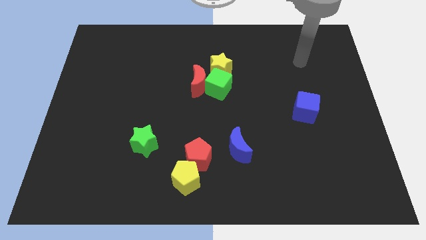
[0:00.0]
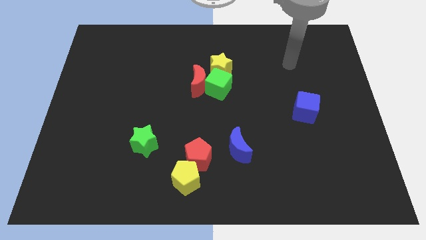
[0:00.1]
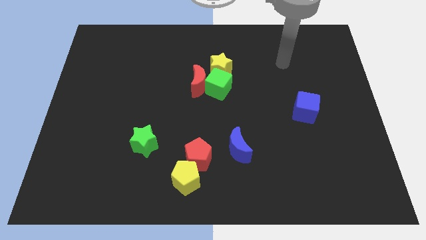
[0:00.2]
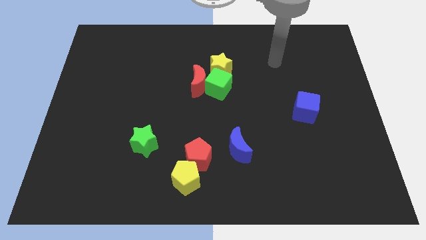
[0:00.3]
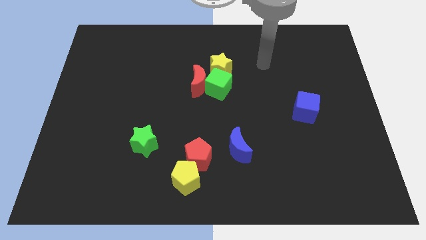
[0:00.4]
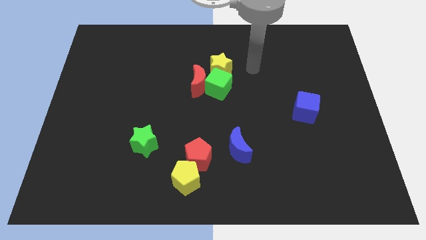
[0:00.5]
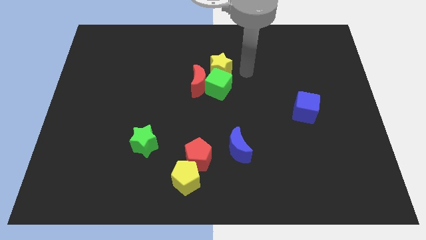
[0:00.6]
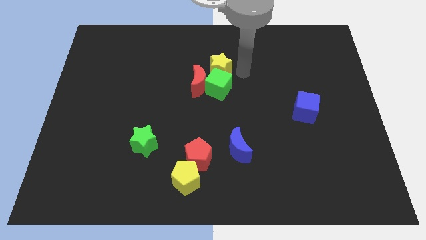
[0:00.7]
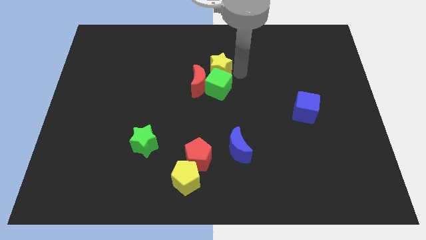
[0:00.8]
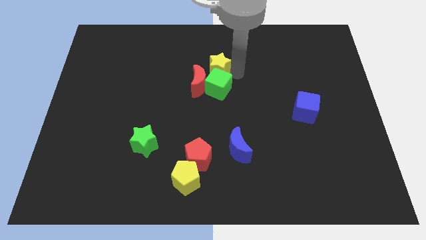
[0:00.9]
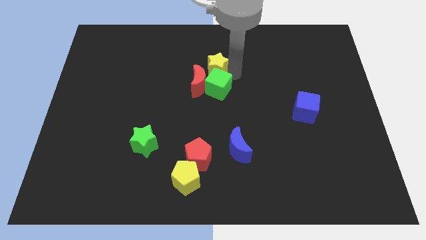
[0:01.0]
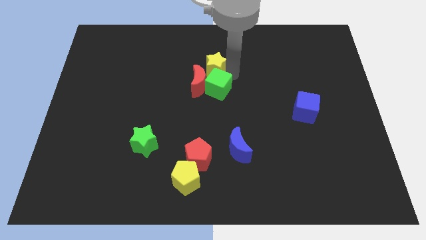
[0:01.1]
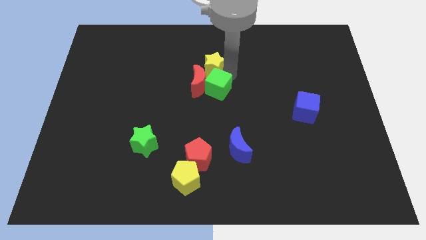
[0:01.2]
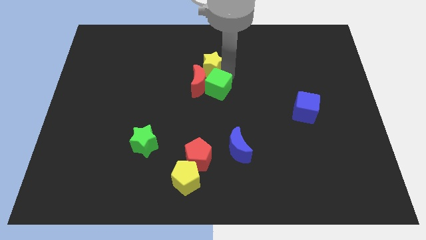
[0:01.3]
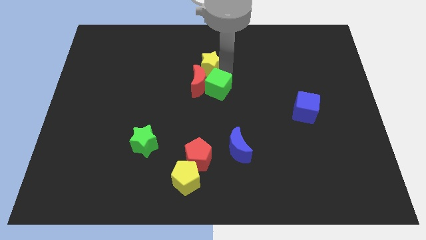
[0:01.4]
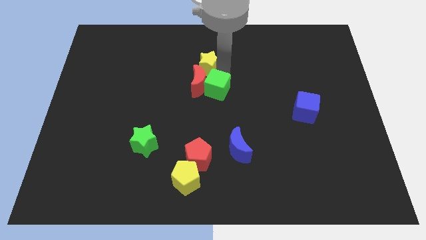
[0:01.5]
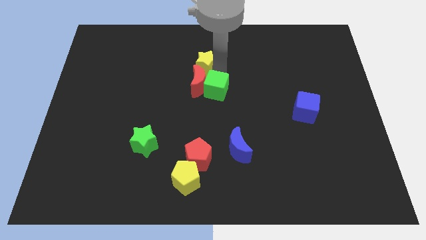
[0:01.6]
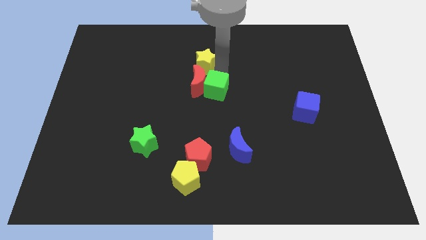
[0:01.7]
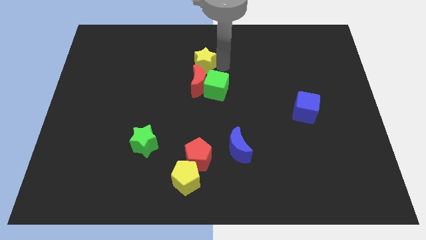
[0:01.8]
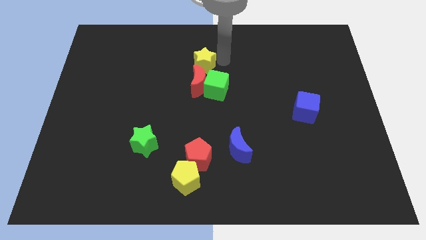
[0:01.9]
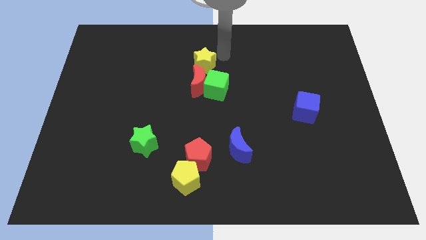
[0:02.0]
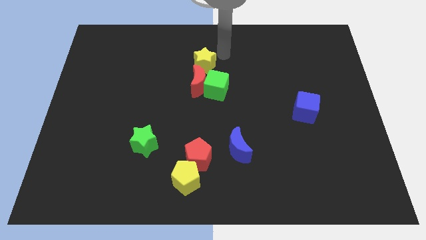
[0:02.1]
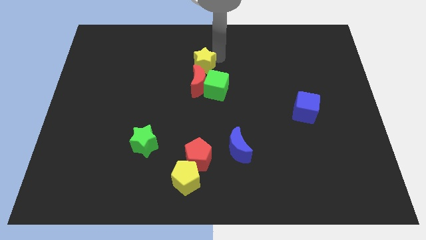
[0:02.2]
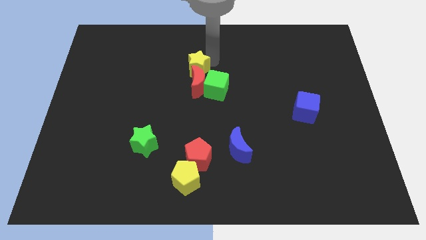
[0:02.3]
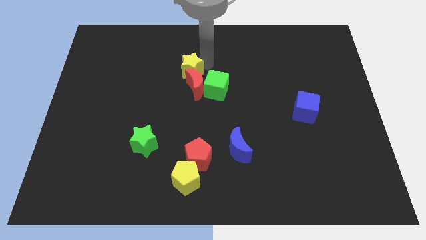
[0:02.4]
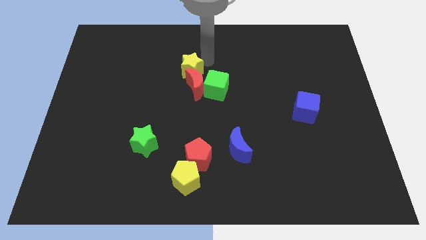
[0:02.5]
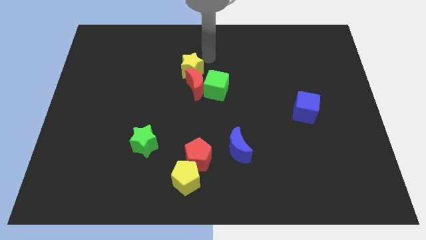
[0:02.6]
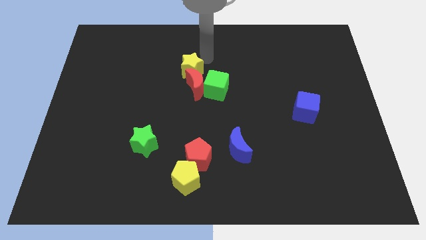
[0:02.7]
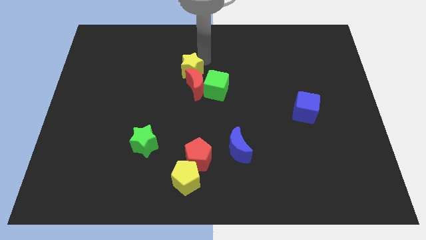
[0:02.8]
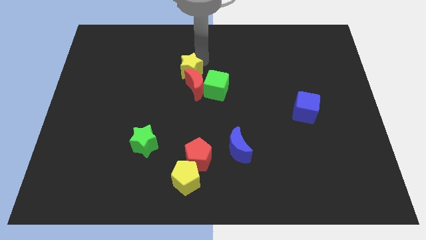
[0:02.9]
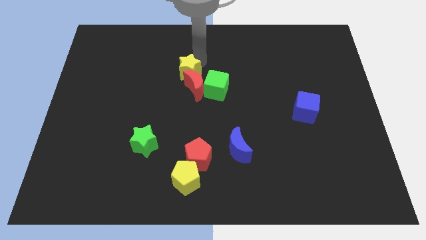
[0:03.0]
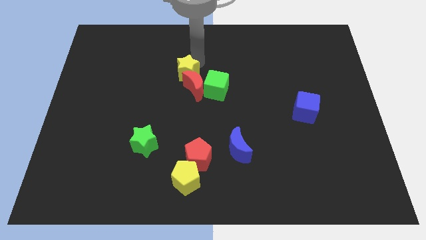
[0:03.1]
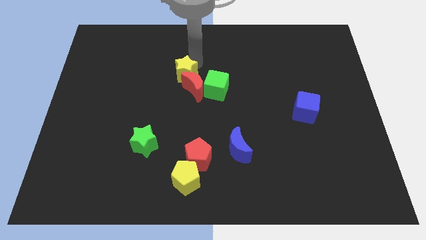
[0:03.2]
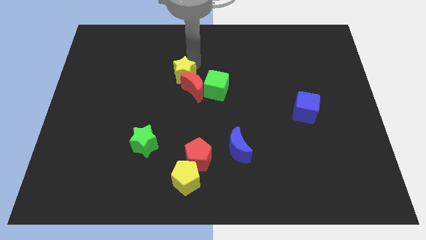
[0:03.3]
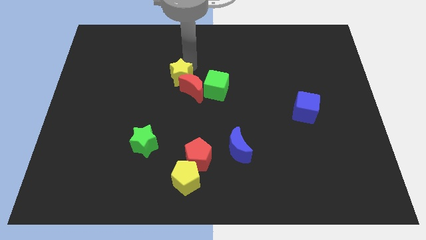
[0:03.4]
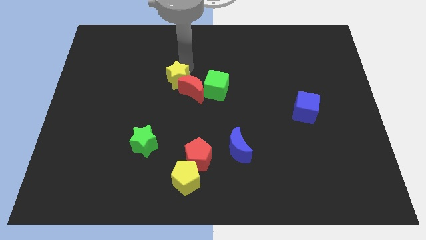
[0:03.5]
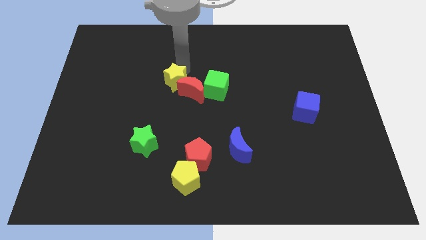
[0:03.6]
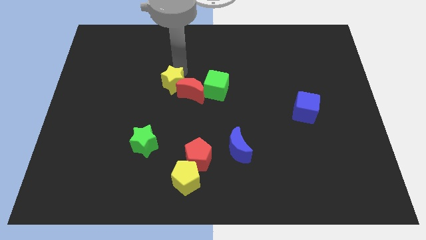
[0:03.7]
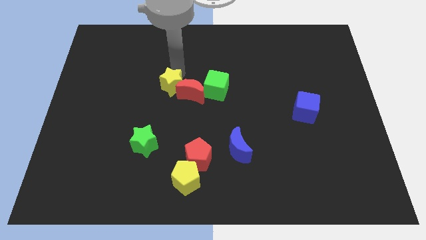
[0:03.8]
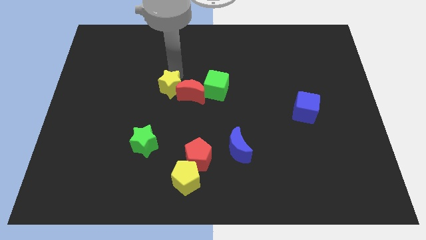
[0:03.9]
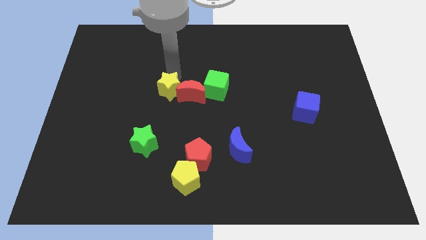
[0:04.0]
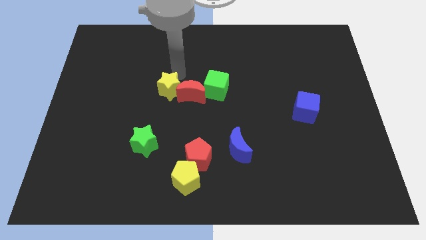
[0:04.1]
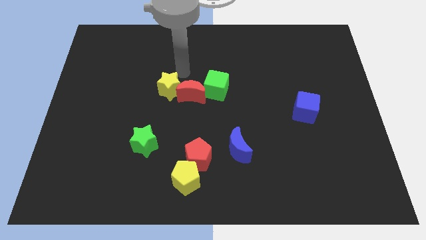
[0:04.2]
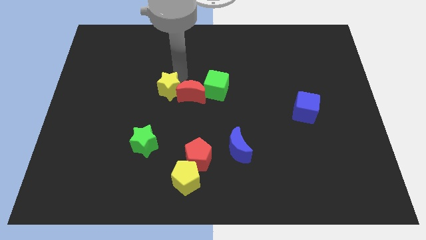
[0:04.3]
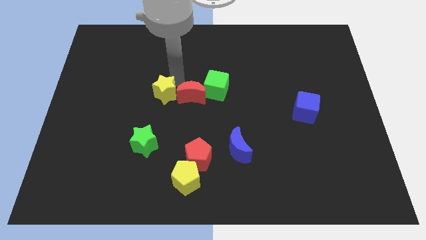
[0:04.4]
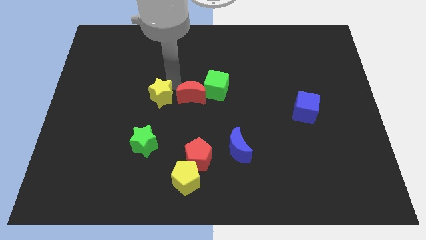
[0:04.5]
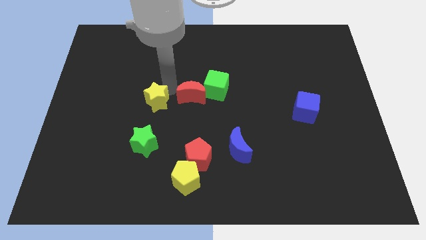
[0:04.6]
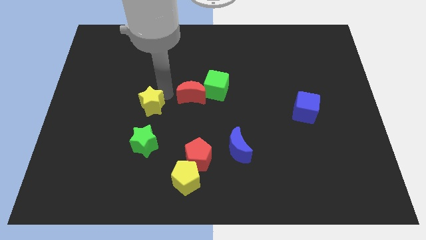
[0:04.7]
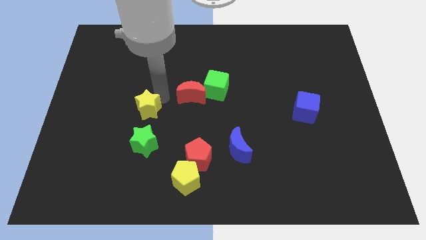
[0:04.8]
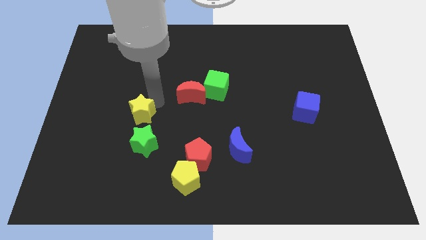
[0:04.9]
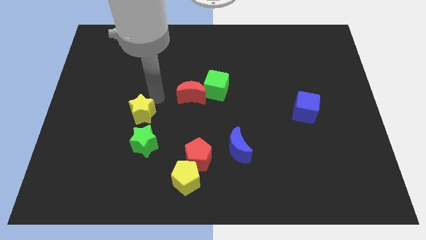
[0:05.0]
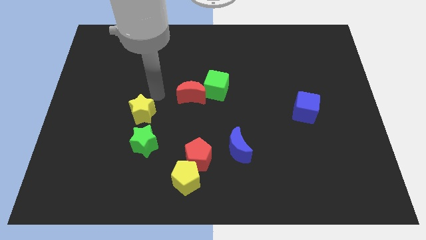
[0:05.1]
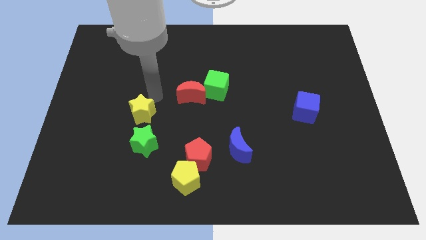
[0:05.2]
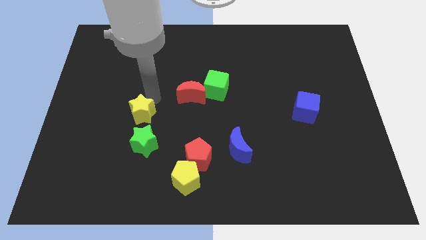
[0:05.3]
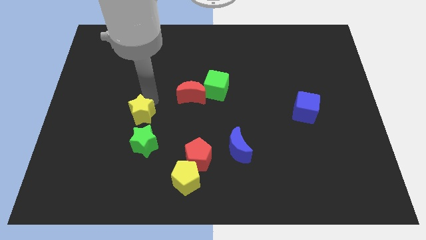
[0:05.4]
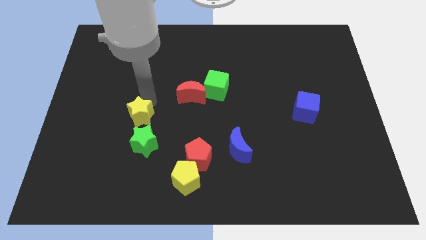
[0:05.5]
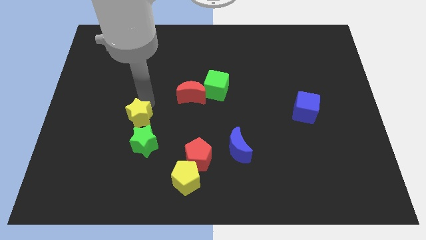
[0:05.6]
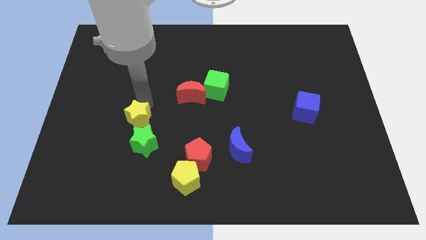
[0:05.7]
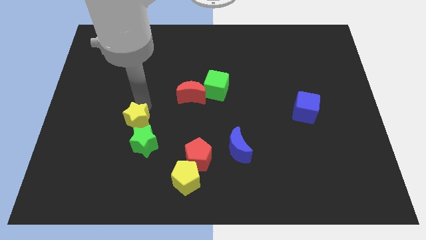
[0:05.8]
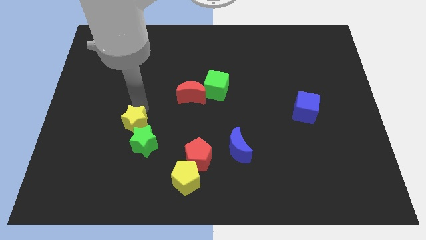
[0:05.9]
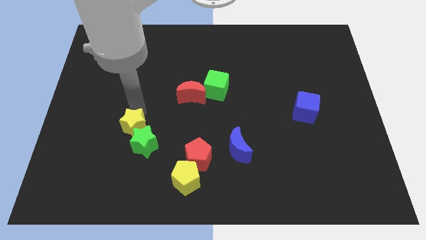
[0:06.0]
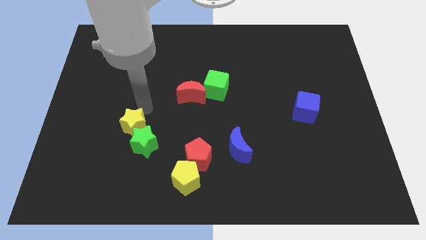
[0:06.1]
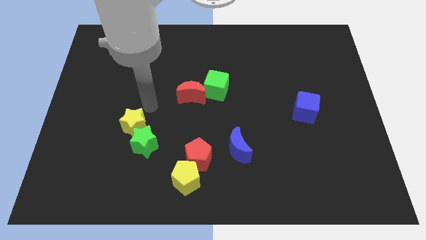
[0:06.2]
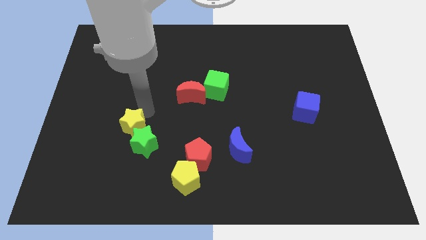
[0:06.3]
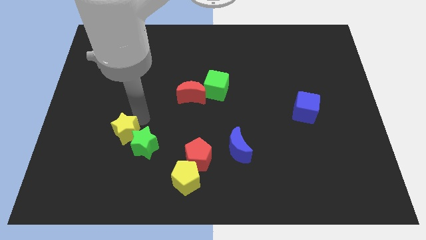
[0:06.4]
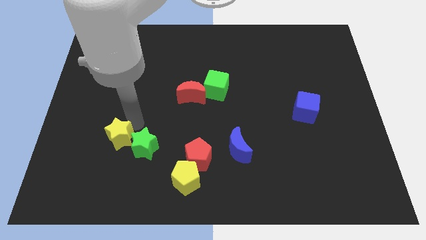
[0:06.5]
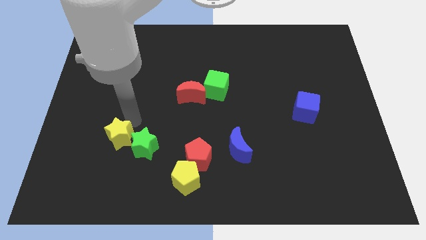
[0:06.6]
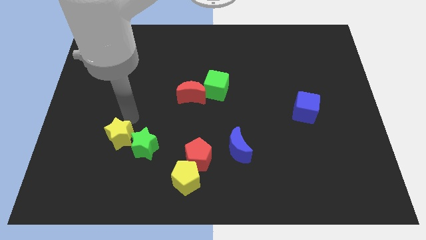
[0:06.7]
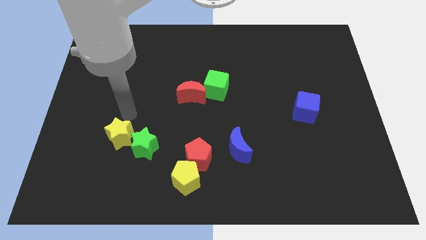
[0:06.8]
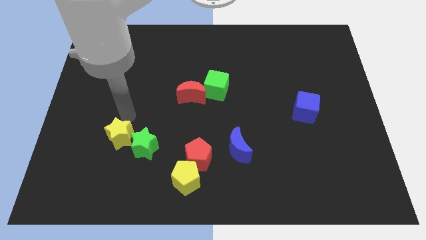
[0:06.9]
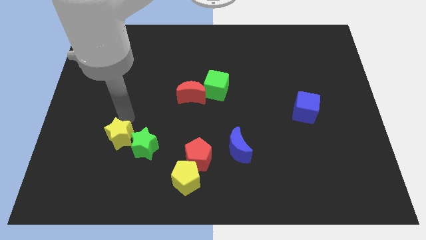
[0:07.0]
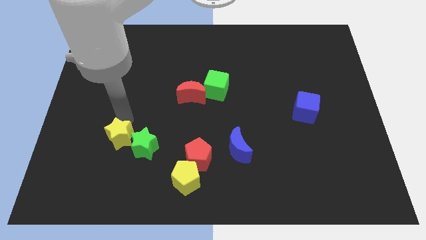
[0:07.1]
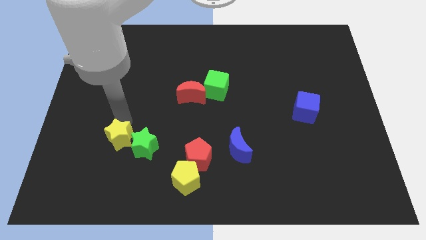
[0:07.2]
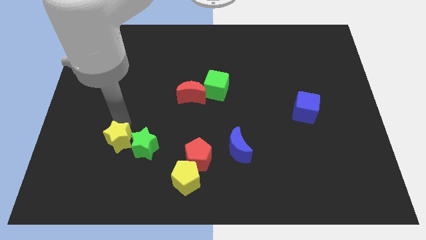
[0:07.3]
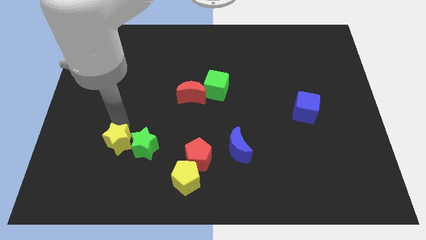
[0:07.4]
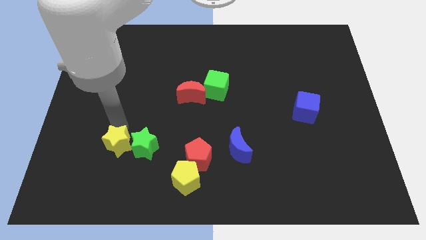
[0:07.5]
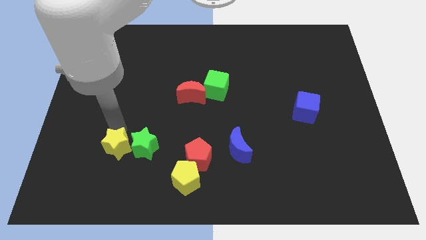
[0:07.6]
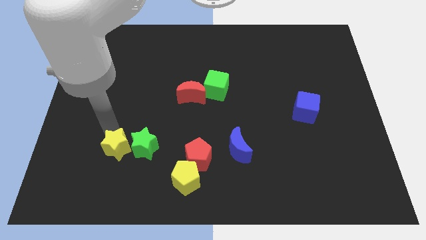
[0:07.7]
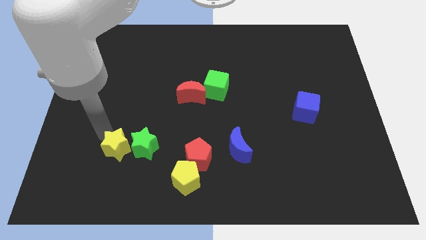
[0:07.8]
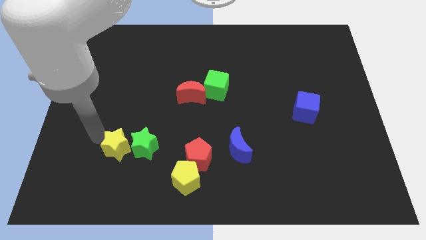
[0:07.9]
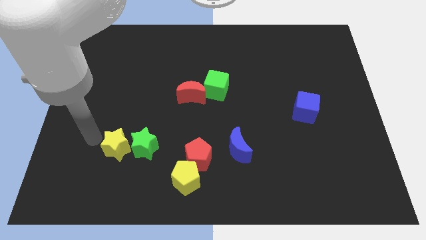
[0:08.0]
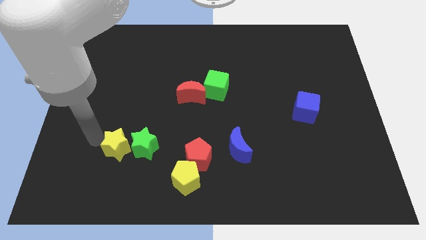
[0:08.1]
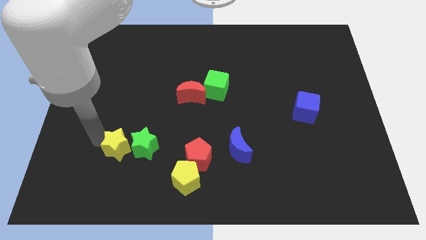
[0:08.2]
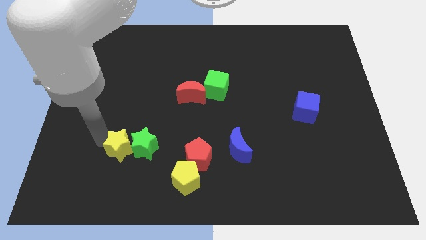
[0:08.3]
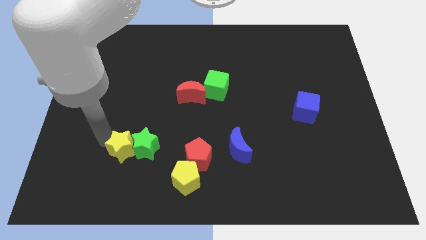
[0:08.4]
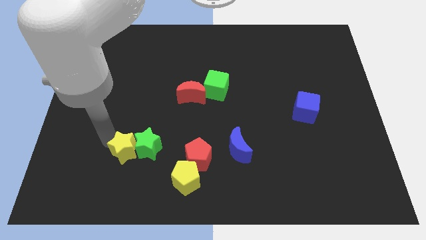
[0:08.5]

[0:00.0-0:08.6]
put the yellow star left of the red pentagon
